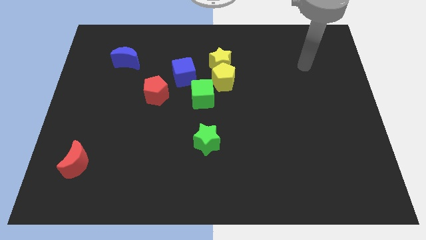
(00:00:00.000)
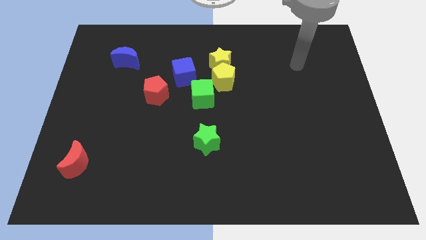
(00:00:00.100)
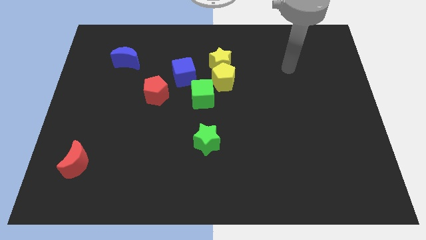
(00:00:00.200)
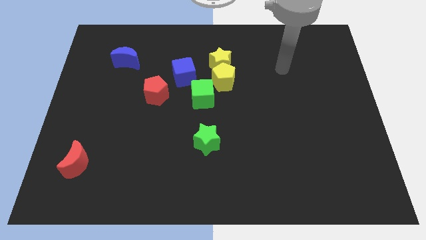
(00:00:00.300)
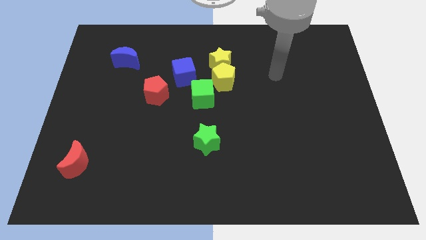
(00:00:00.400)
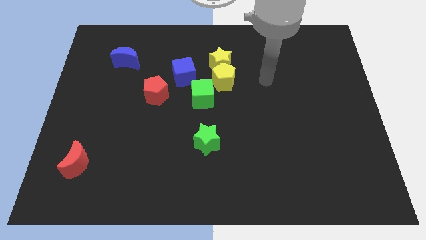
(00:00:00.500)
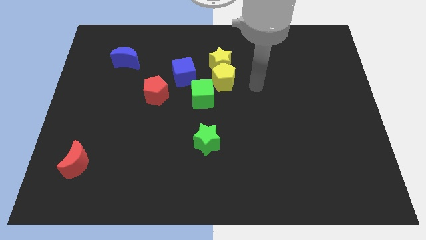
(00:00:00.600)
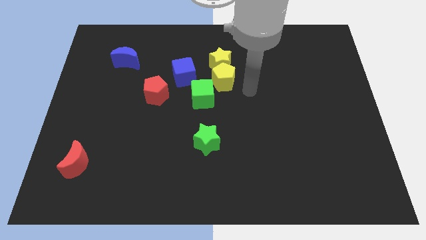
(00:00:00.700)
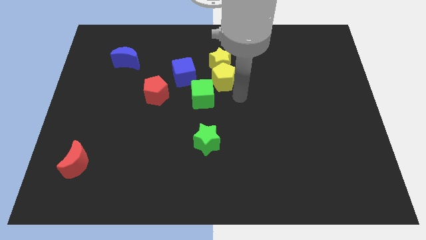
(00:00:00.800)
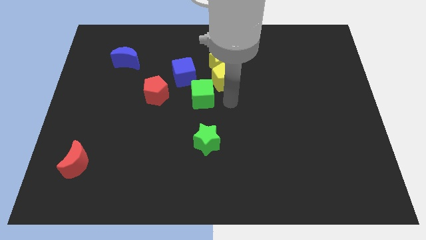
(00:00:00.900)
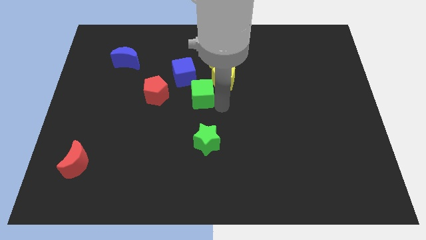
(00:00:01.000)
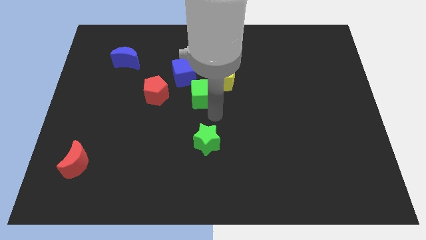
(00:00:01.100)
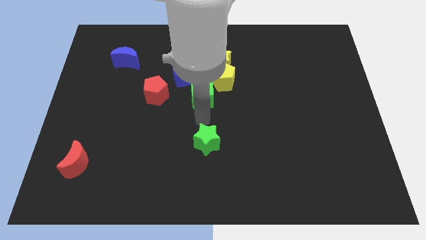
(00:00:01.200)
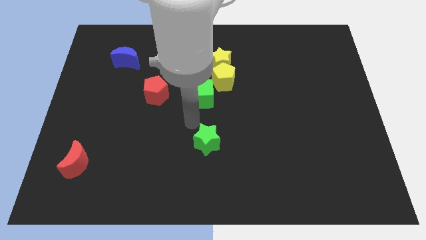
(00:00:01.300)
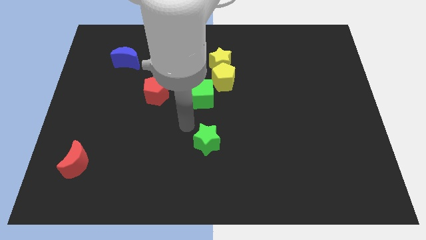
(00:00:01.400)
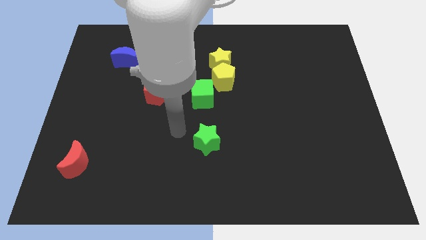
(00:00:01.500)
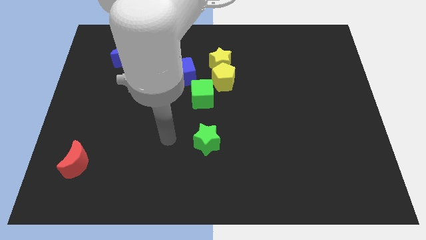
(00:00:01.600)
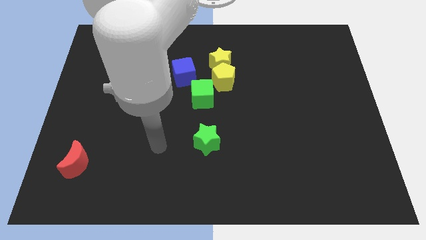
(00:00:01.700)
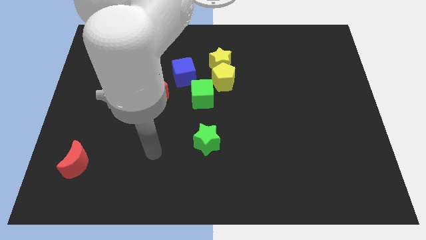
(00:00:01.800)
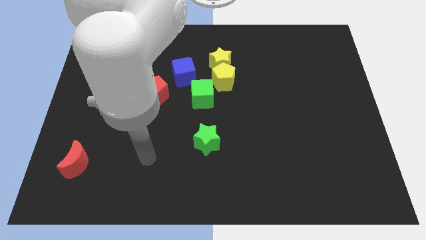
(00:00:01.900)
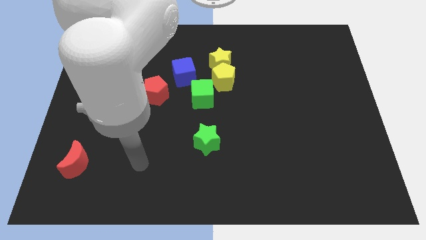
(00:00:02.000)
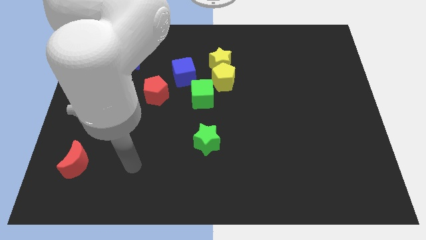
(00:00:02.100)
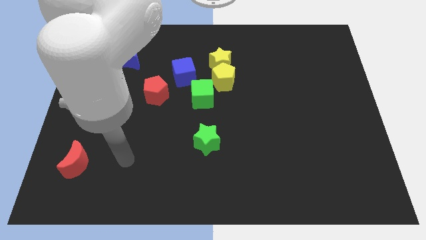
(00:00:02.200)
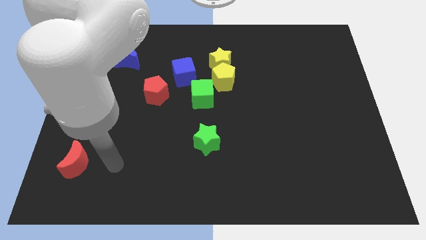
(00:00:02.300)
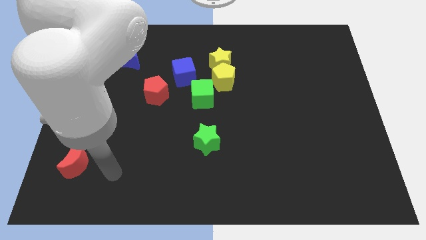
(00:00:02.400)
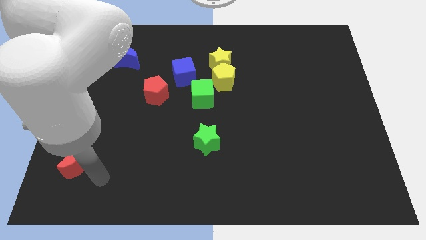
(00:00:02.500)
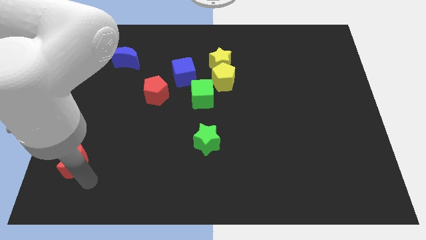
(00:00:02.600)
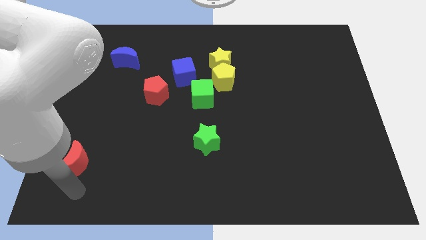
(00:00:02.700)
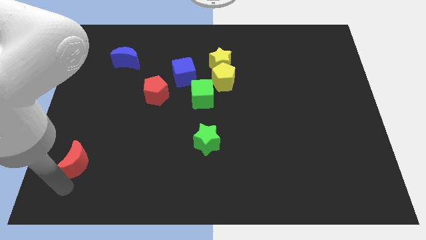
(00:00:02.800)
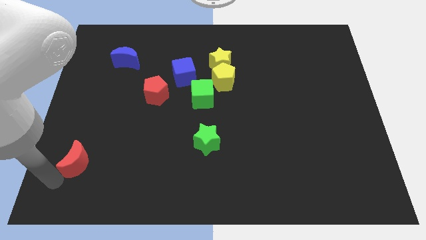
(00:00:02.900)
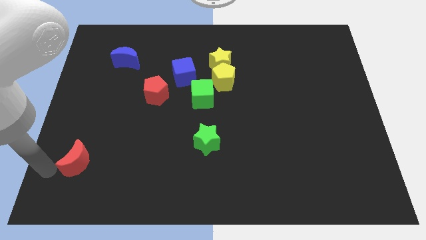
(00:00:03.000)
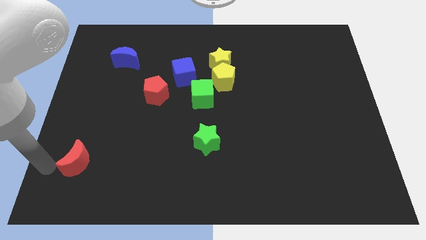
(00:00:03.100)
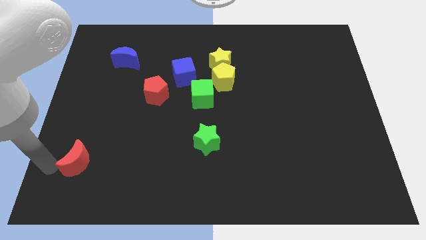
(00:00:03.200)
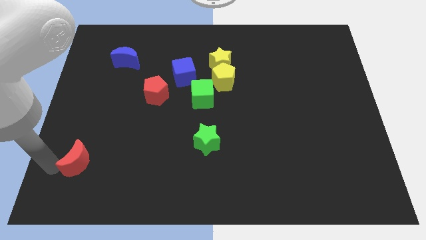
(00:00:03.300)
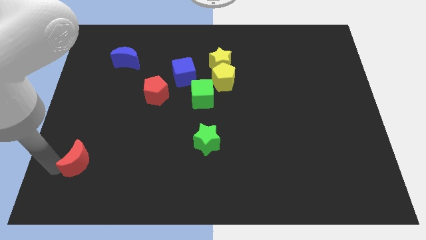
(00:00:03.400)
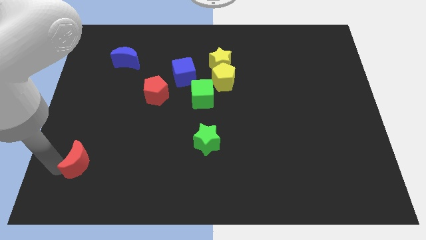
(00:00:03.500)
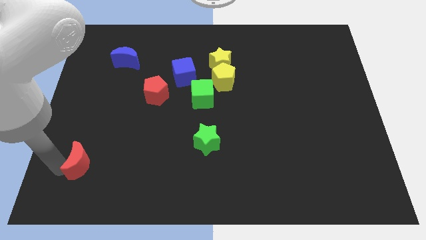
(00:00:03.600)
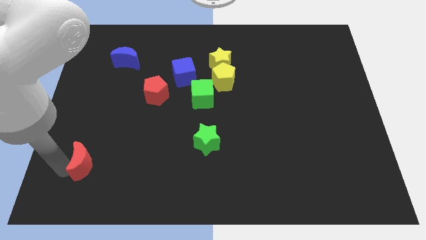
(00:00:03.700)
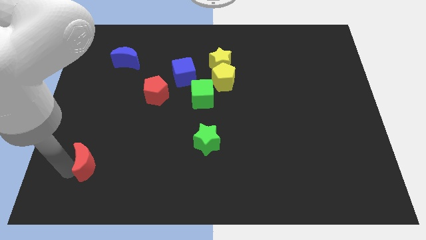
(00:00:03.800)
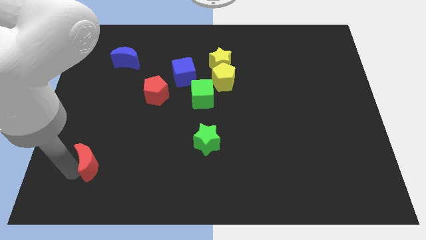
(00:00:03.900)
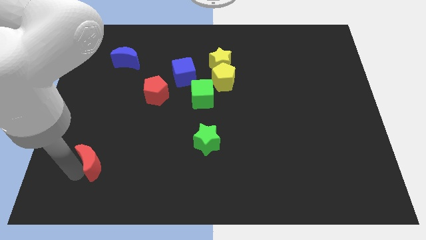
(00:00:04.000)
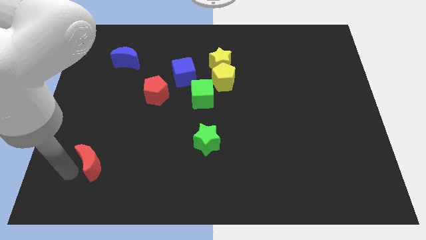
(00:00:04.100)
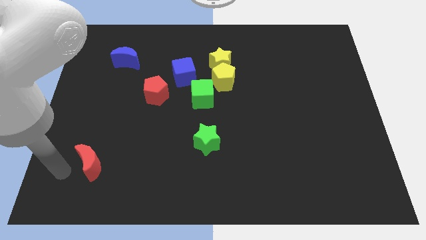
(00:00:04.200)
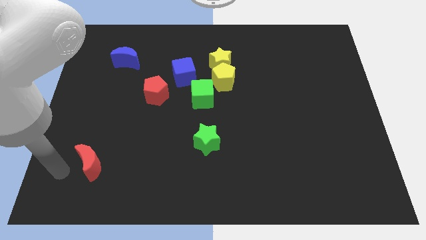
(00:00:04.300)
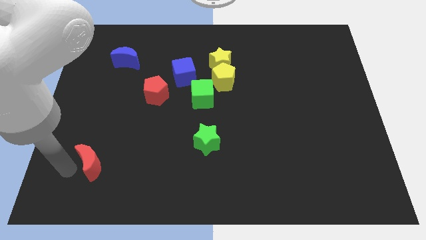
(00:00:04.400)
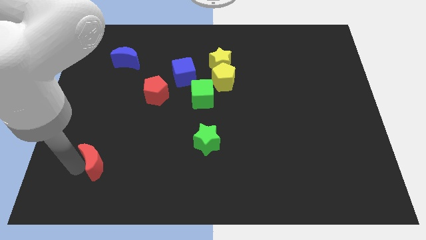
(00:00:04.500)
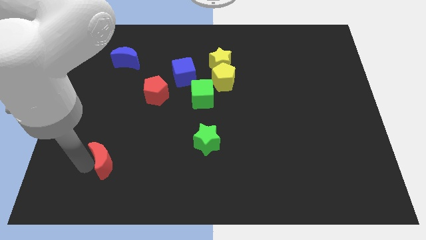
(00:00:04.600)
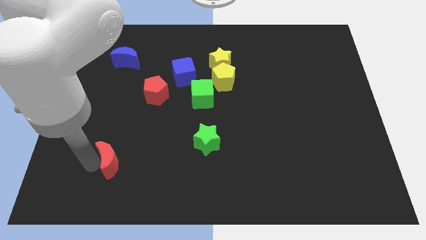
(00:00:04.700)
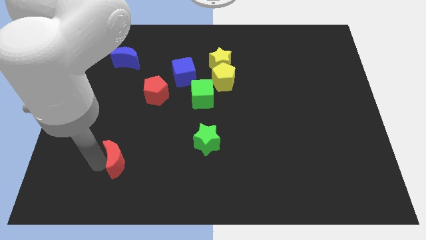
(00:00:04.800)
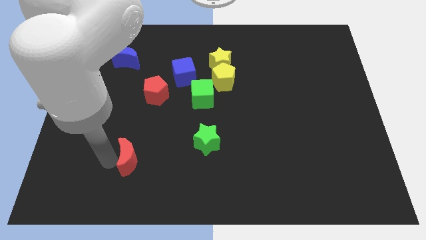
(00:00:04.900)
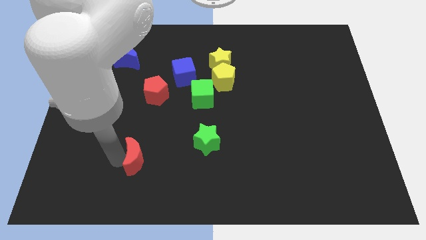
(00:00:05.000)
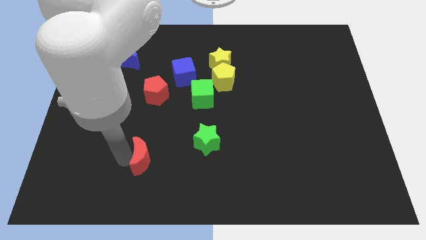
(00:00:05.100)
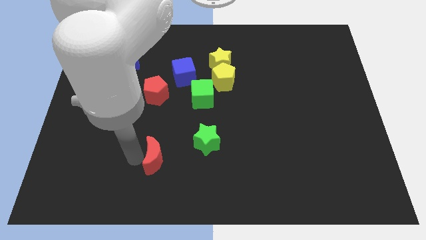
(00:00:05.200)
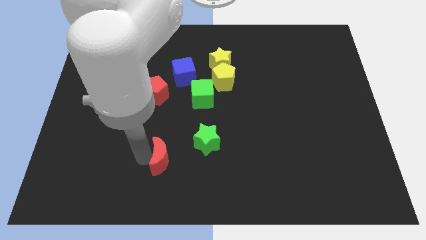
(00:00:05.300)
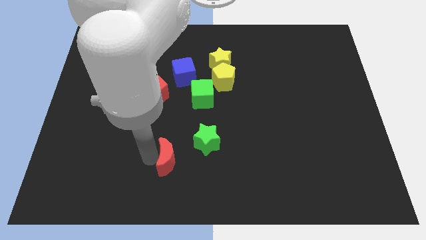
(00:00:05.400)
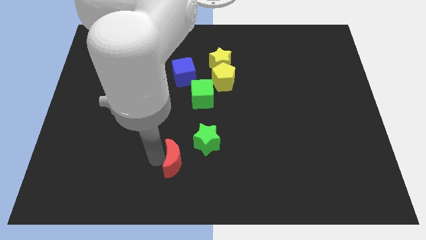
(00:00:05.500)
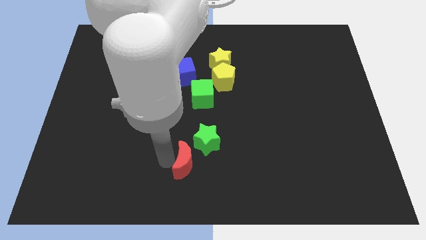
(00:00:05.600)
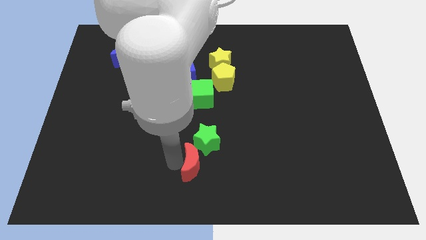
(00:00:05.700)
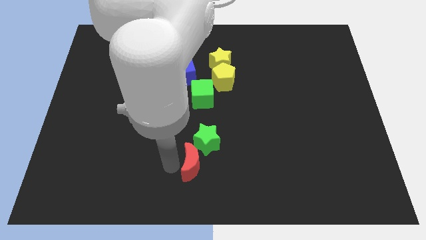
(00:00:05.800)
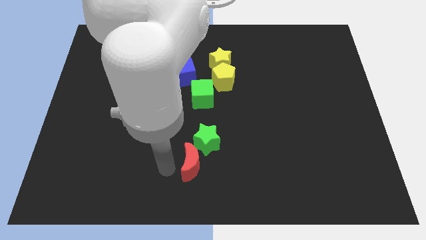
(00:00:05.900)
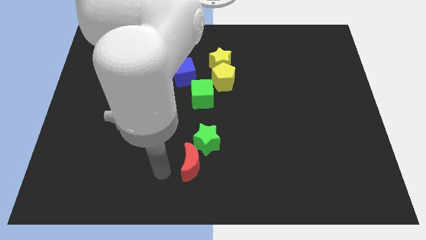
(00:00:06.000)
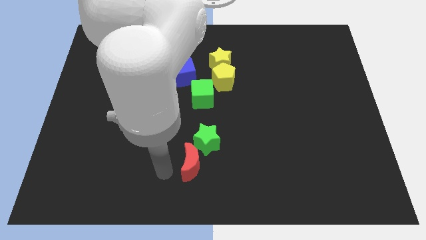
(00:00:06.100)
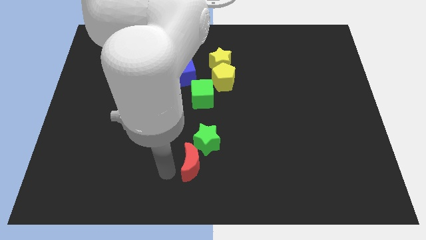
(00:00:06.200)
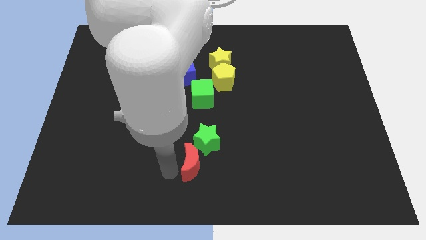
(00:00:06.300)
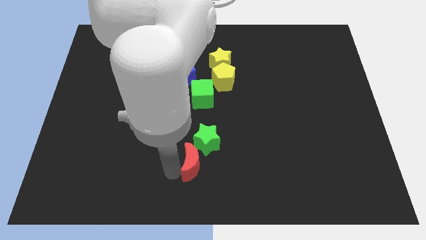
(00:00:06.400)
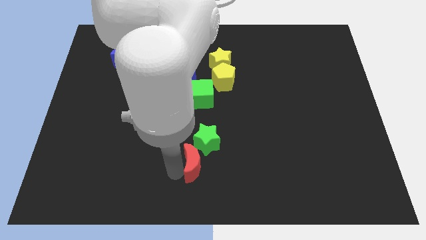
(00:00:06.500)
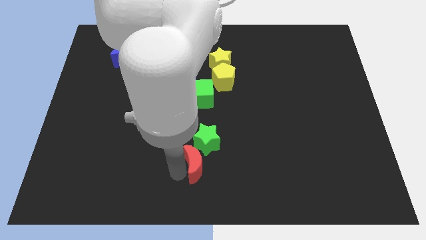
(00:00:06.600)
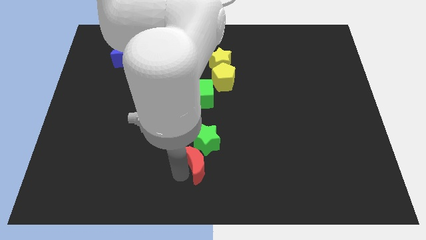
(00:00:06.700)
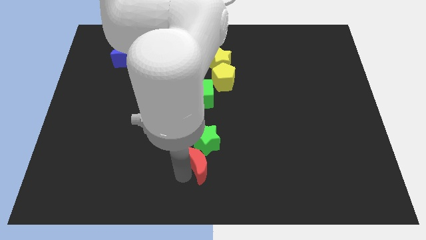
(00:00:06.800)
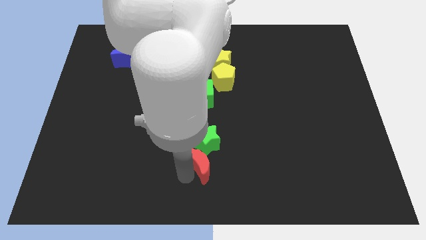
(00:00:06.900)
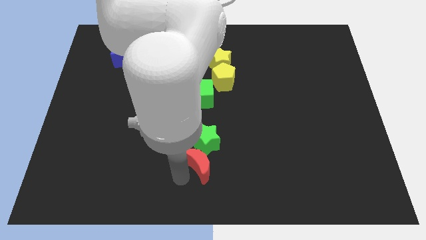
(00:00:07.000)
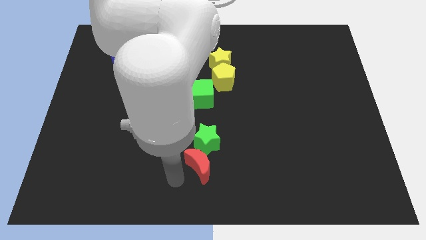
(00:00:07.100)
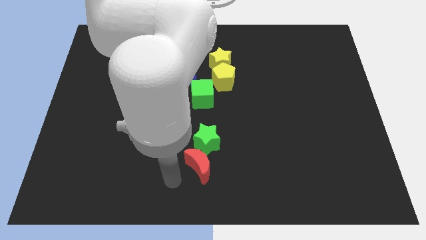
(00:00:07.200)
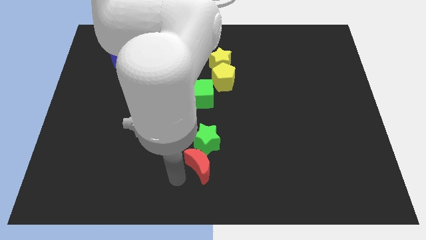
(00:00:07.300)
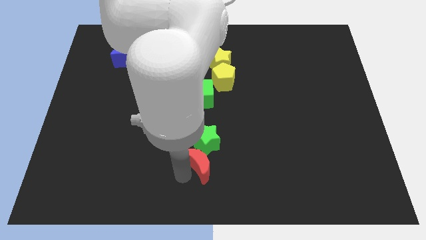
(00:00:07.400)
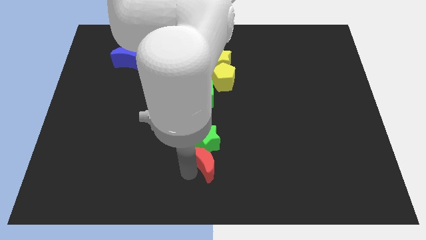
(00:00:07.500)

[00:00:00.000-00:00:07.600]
slide the red moon to the bottom right of the green star
